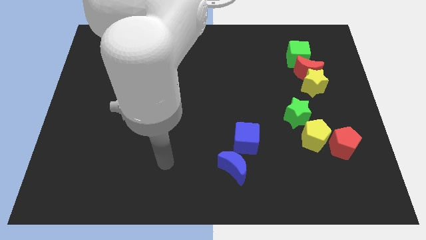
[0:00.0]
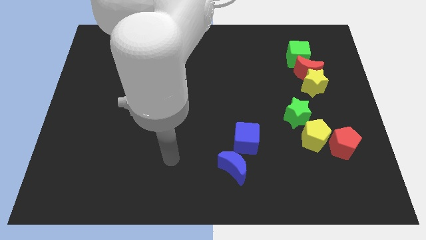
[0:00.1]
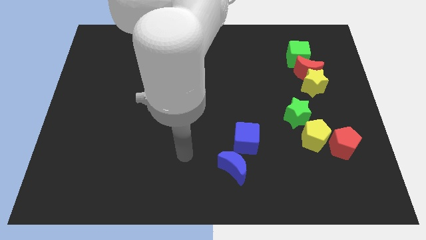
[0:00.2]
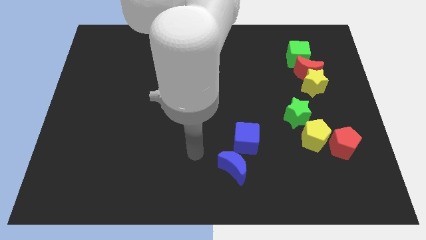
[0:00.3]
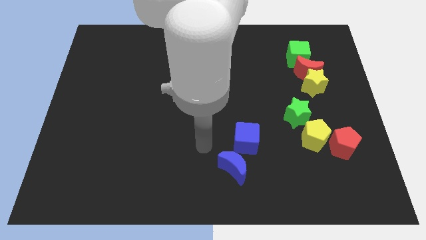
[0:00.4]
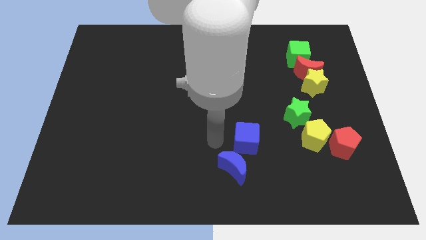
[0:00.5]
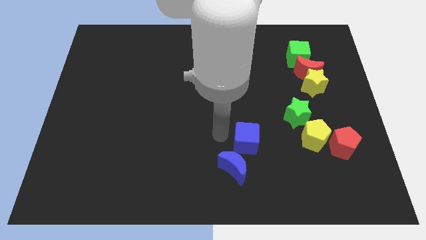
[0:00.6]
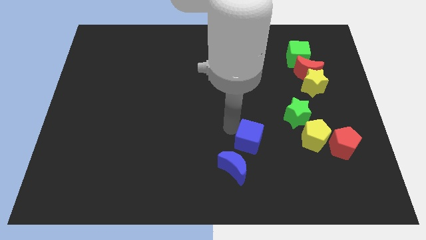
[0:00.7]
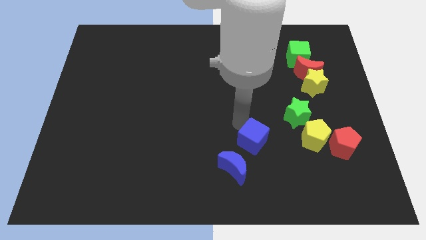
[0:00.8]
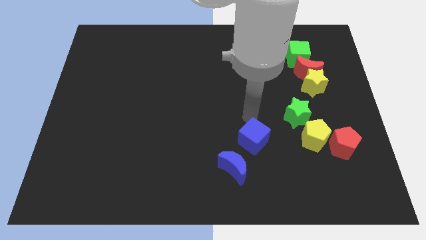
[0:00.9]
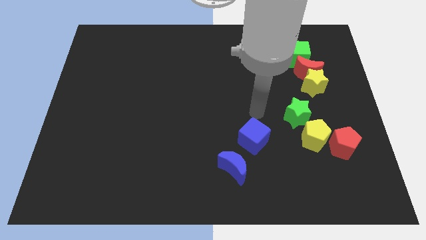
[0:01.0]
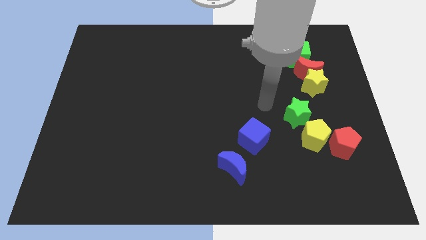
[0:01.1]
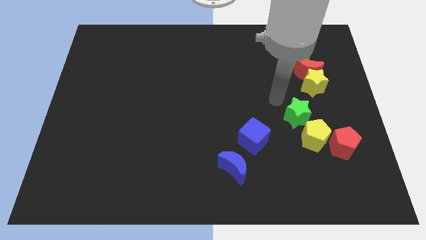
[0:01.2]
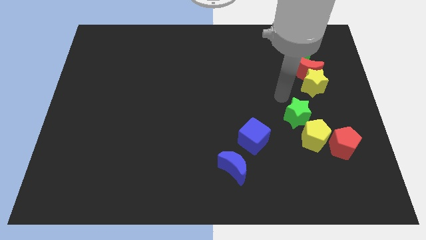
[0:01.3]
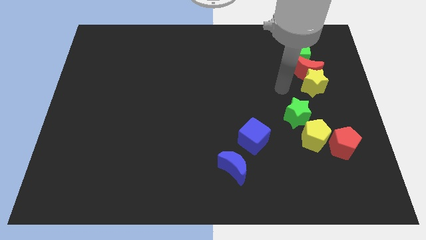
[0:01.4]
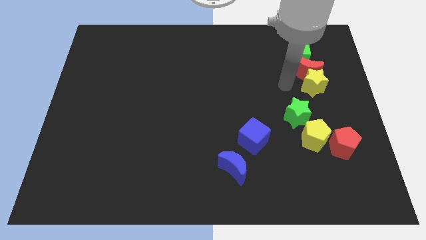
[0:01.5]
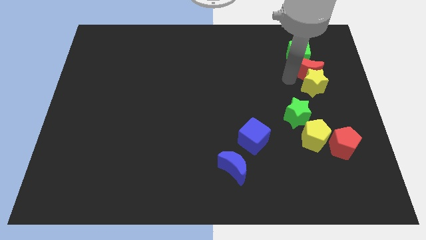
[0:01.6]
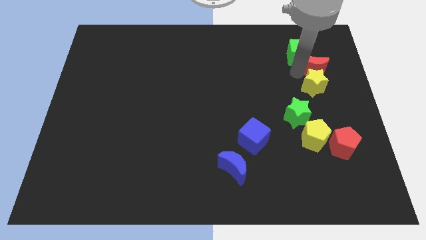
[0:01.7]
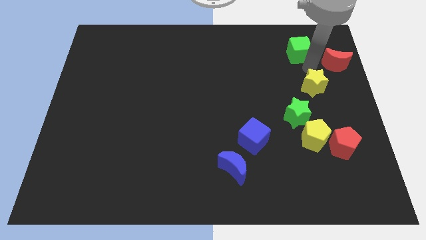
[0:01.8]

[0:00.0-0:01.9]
separate the yellow star from the red moon

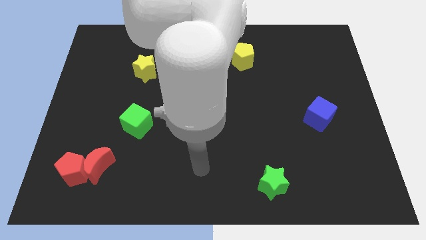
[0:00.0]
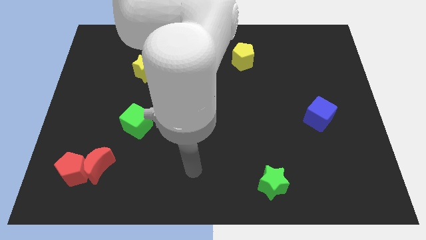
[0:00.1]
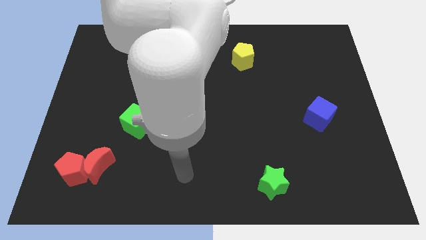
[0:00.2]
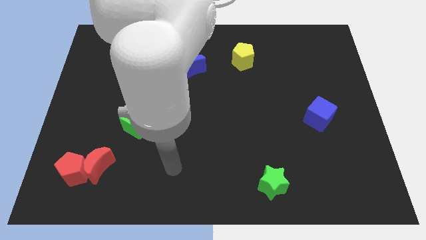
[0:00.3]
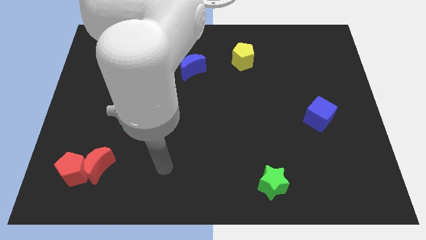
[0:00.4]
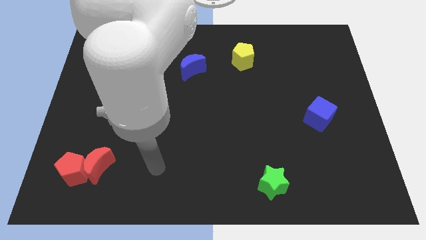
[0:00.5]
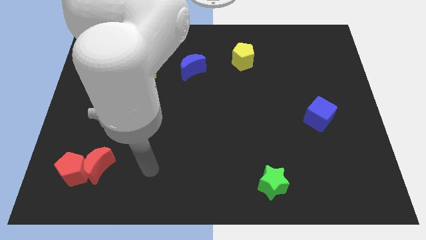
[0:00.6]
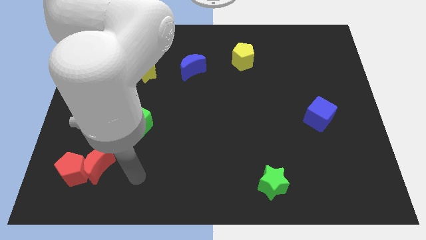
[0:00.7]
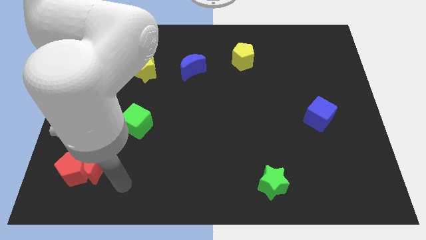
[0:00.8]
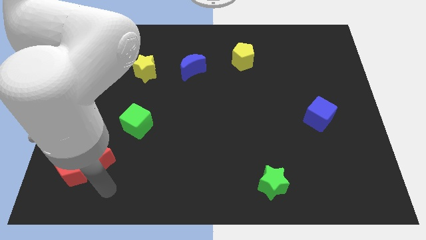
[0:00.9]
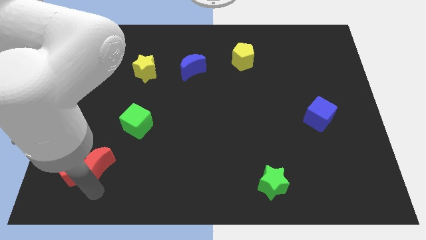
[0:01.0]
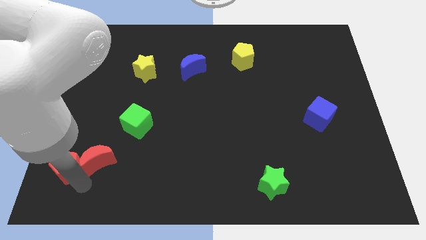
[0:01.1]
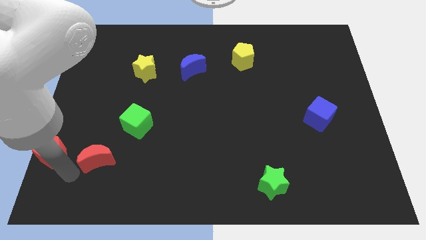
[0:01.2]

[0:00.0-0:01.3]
move the red moon away from the red pentagon

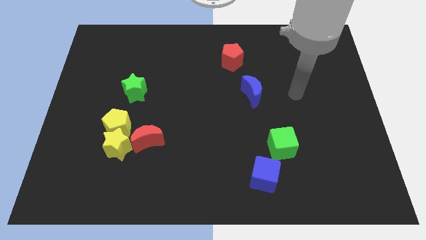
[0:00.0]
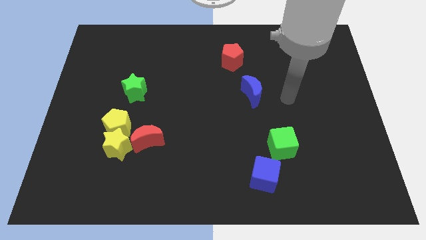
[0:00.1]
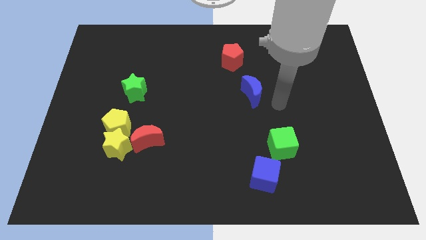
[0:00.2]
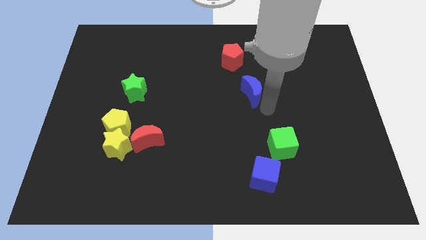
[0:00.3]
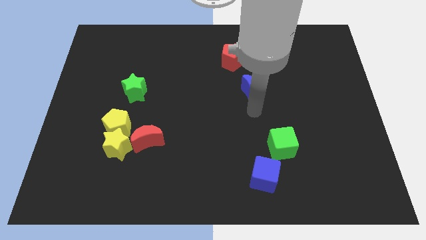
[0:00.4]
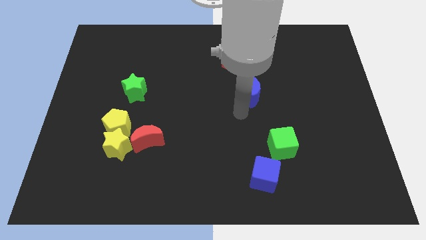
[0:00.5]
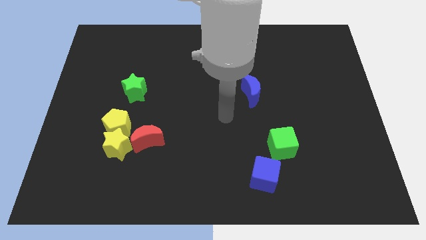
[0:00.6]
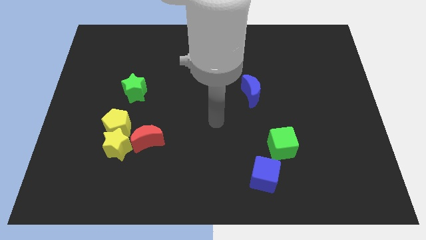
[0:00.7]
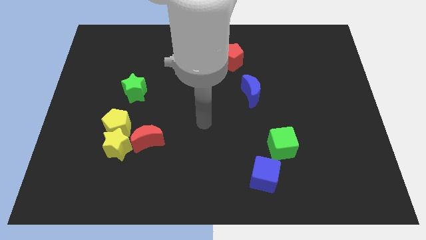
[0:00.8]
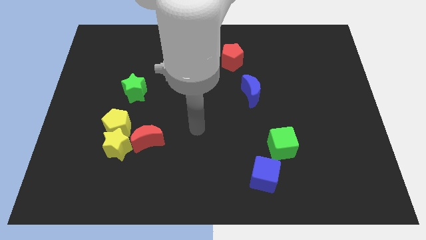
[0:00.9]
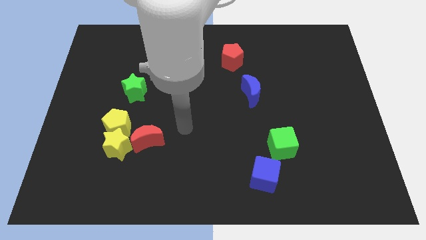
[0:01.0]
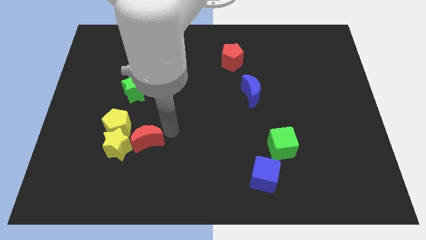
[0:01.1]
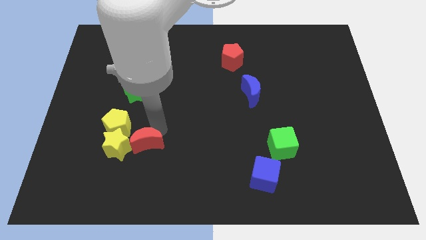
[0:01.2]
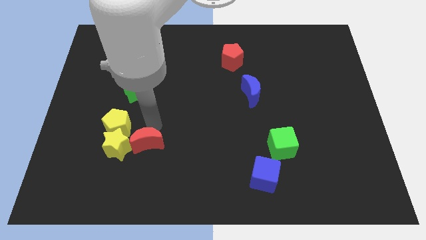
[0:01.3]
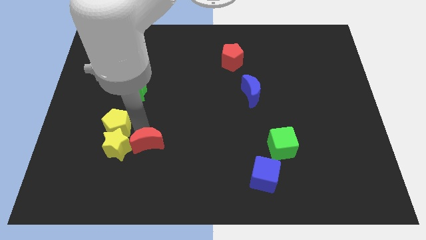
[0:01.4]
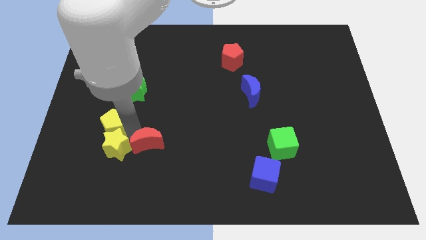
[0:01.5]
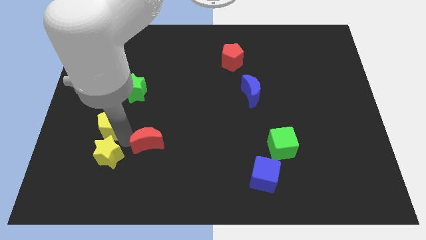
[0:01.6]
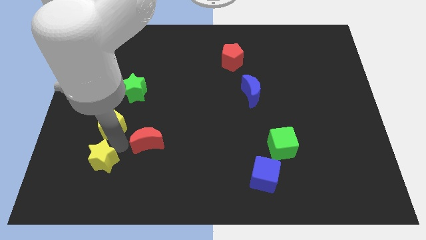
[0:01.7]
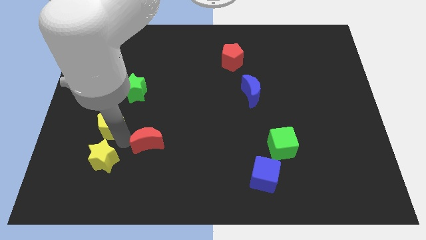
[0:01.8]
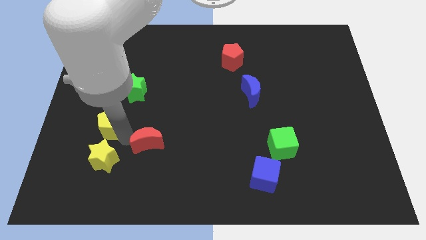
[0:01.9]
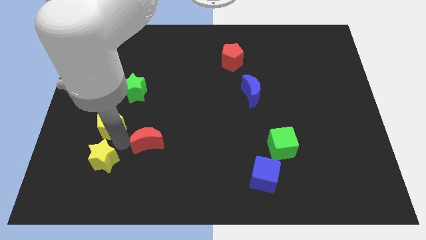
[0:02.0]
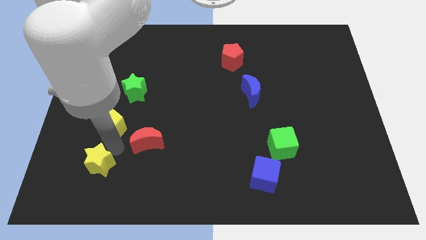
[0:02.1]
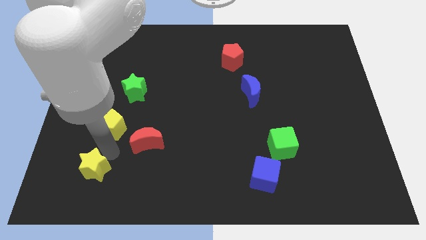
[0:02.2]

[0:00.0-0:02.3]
move the yellow star away from the yellow pentagon and red moon

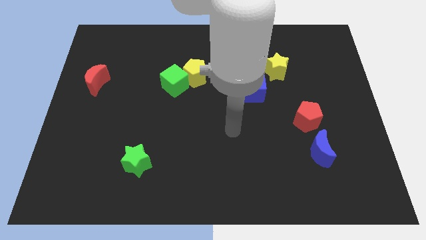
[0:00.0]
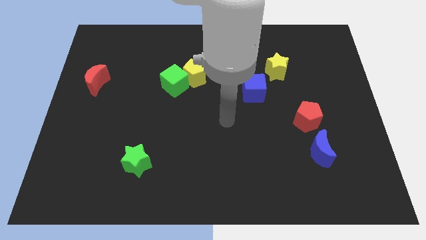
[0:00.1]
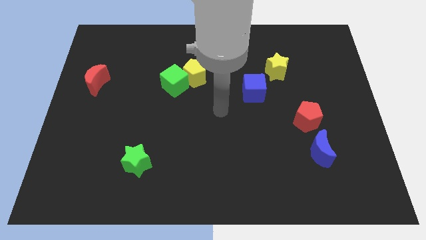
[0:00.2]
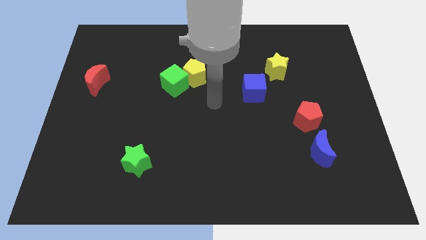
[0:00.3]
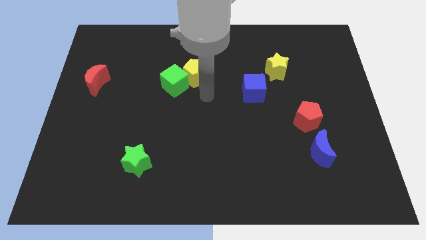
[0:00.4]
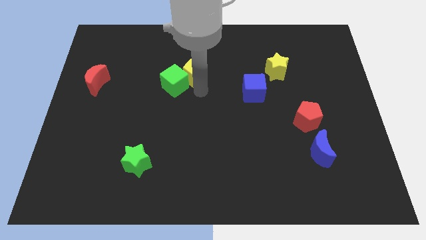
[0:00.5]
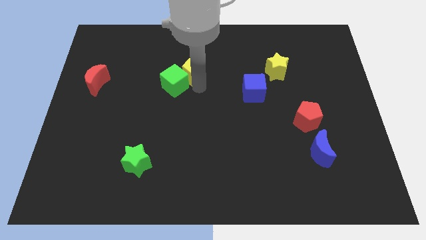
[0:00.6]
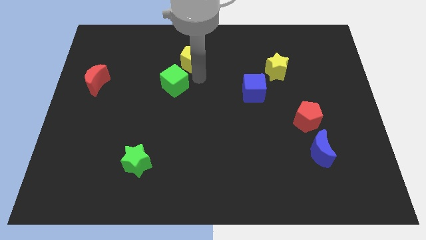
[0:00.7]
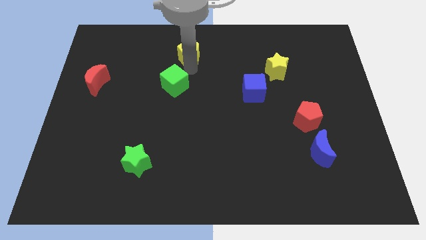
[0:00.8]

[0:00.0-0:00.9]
separate the green cube from the yellow pentagon

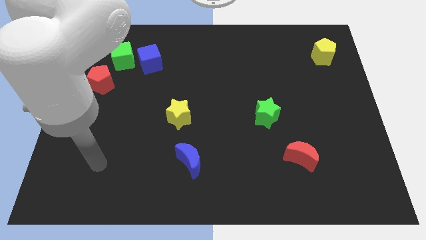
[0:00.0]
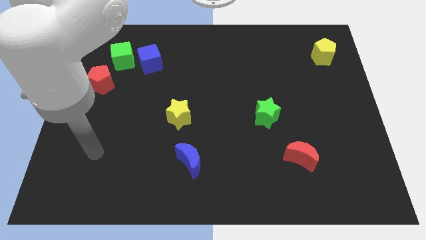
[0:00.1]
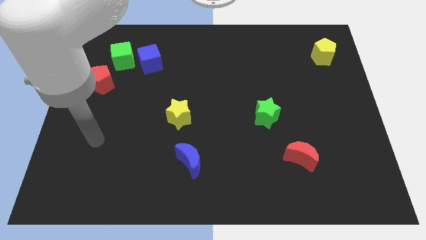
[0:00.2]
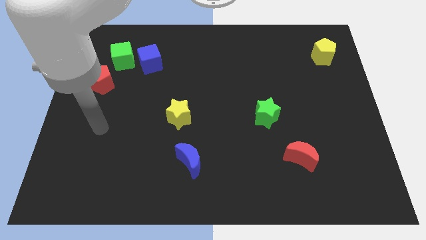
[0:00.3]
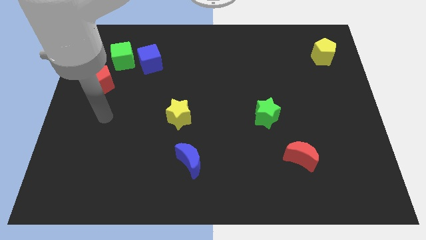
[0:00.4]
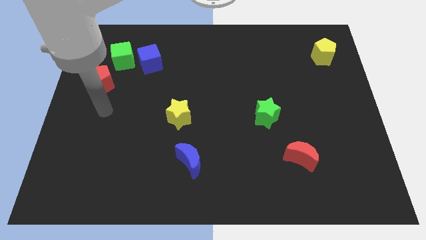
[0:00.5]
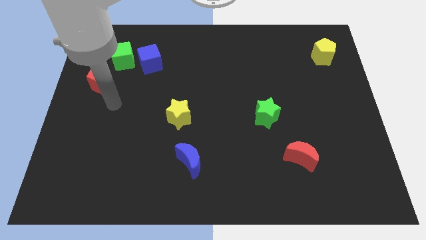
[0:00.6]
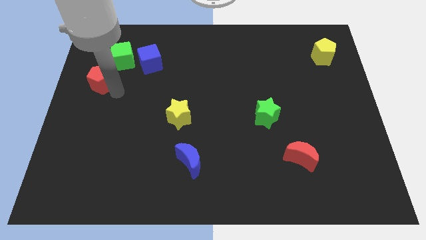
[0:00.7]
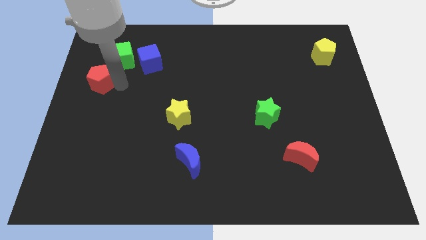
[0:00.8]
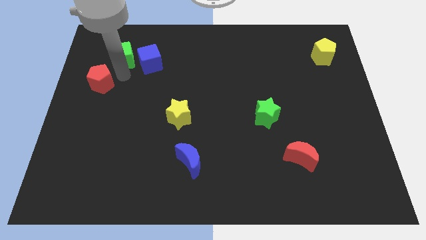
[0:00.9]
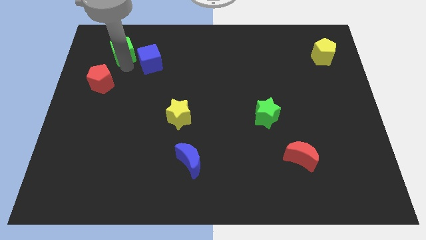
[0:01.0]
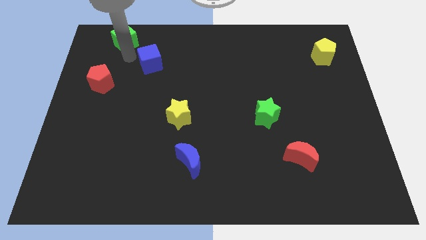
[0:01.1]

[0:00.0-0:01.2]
move the blue cube away from the green cube

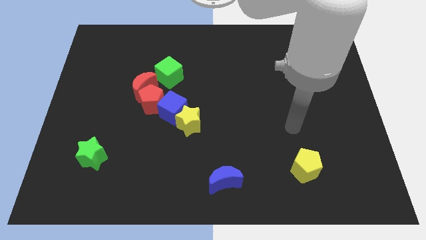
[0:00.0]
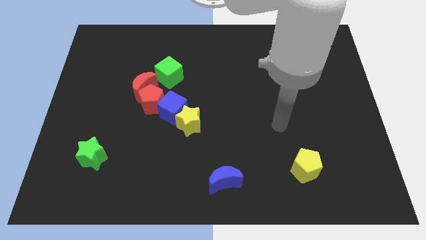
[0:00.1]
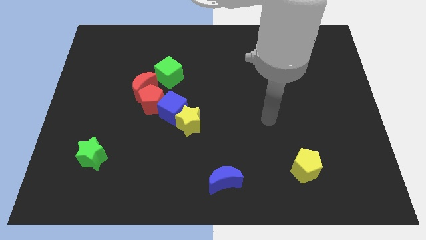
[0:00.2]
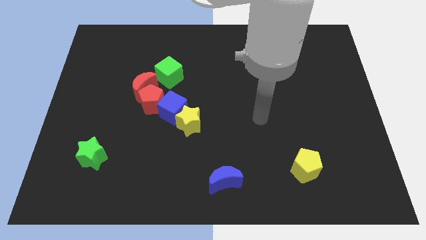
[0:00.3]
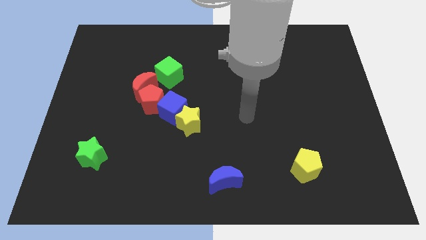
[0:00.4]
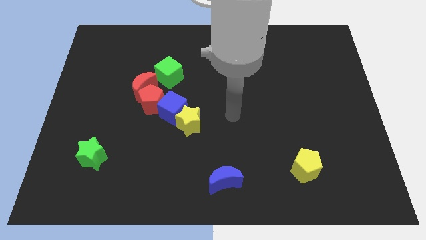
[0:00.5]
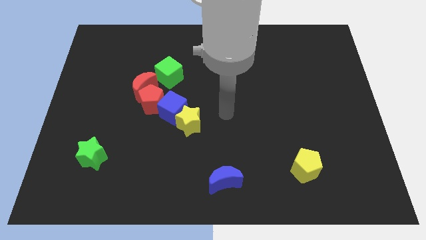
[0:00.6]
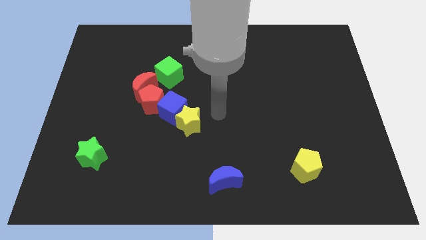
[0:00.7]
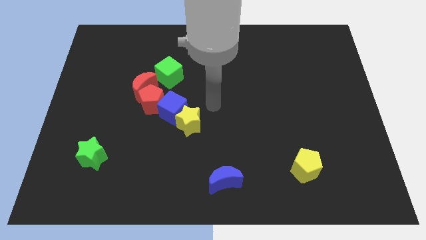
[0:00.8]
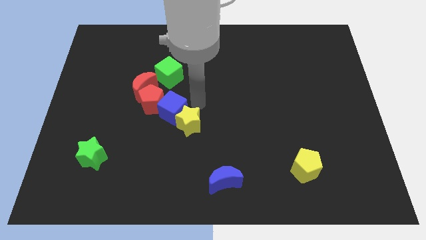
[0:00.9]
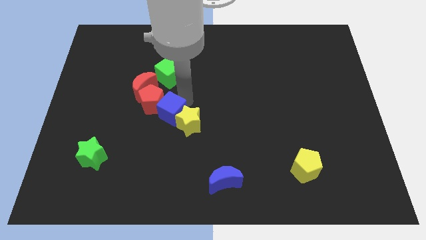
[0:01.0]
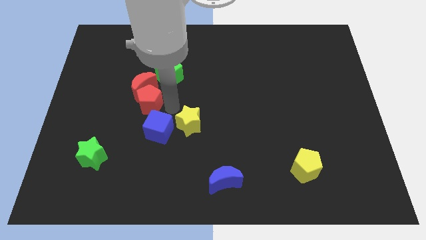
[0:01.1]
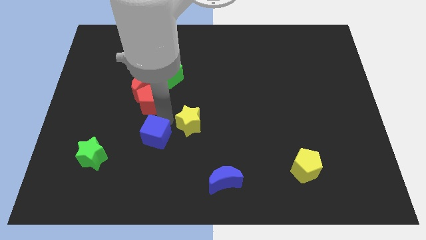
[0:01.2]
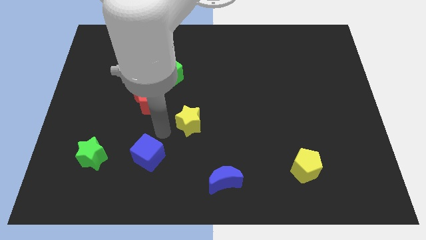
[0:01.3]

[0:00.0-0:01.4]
pull the yellow star apart from the blue cube

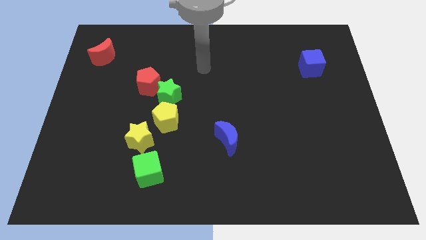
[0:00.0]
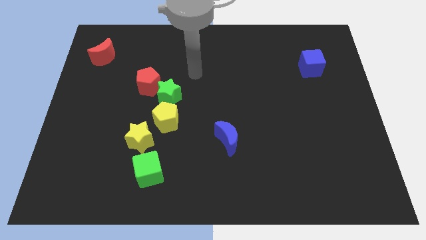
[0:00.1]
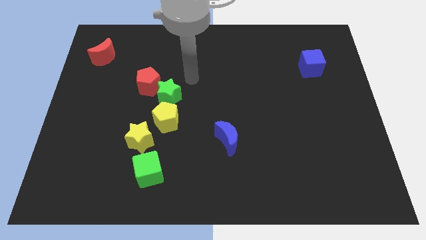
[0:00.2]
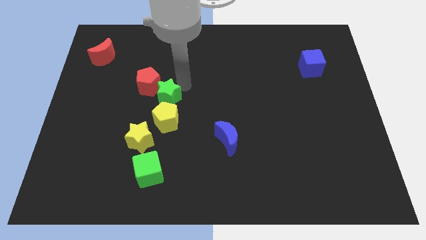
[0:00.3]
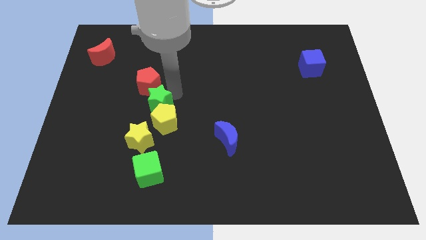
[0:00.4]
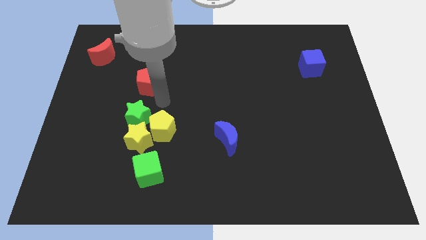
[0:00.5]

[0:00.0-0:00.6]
pull the red pentagon apart from the green star
